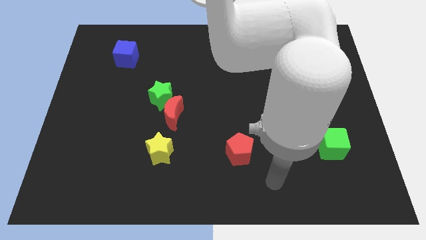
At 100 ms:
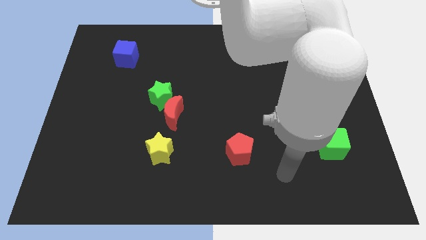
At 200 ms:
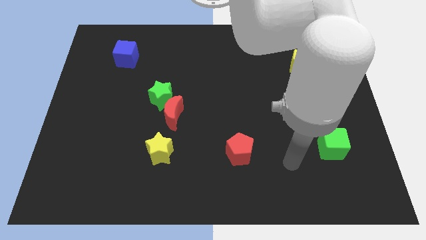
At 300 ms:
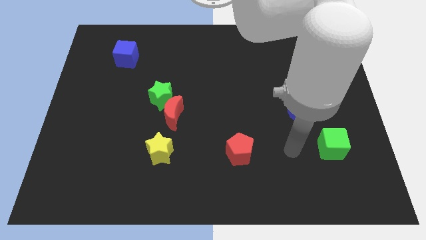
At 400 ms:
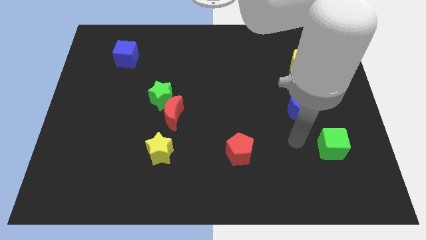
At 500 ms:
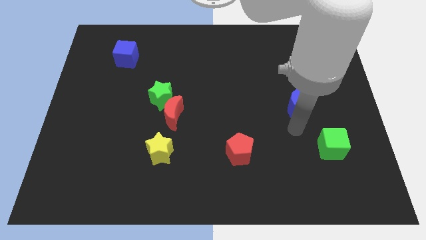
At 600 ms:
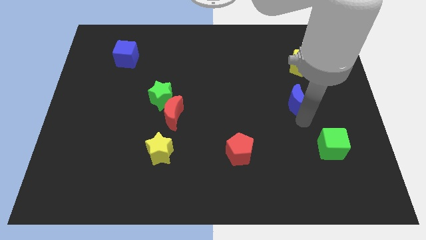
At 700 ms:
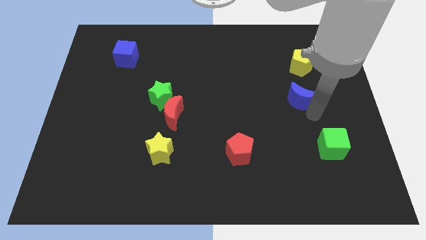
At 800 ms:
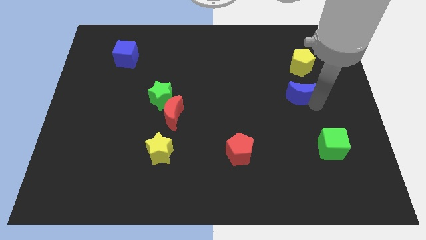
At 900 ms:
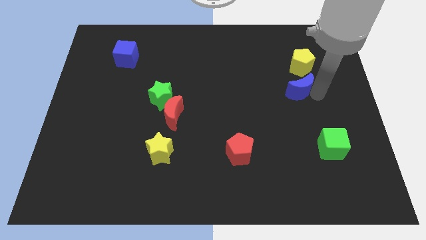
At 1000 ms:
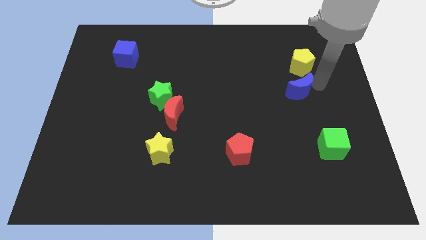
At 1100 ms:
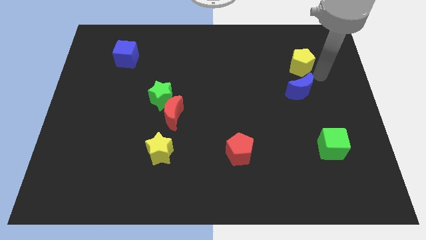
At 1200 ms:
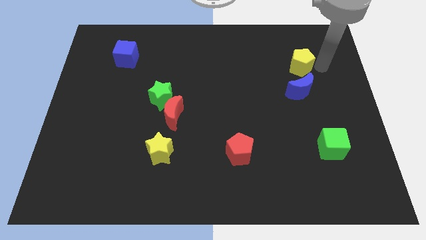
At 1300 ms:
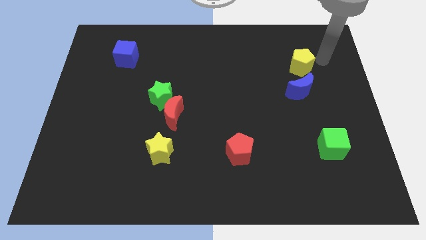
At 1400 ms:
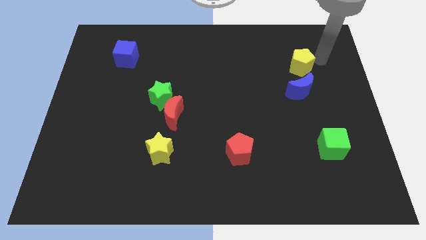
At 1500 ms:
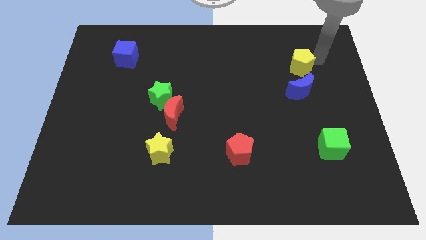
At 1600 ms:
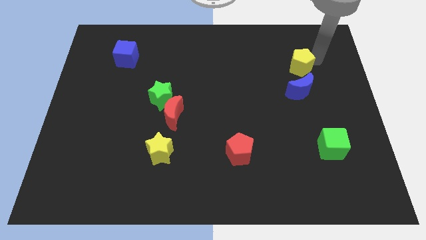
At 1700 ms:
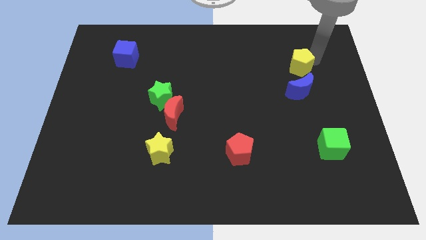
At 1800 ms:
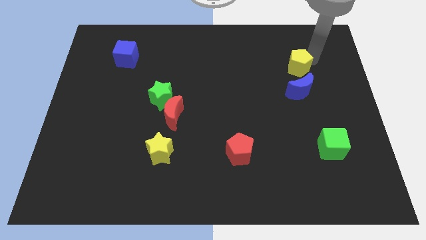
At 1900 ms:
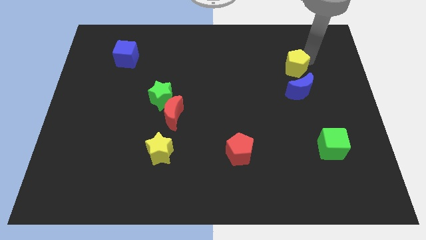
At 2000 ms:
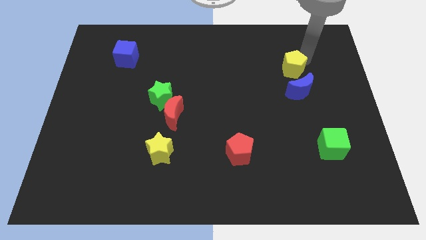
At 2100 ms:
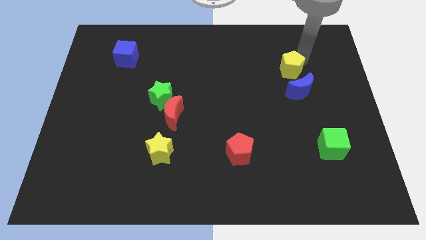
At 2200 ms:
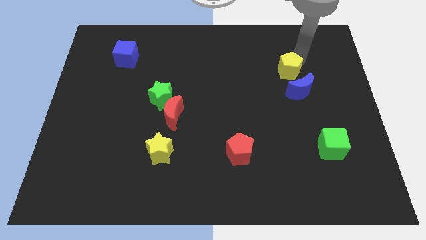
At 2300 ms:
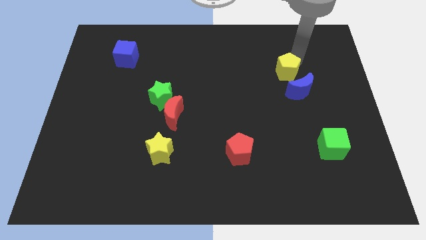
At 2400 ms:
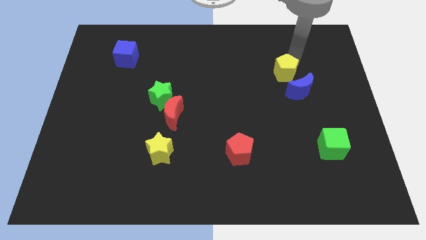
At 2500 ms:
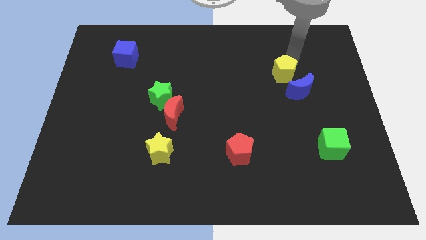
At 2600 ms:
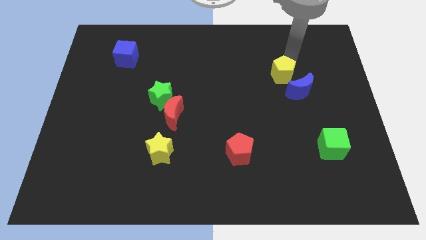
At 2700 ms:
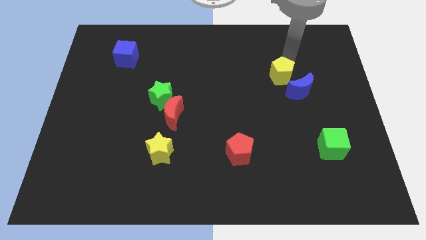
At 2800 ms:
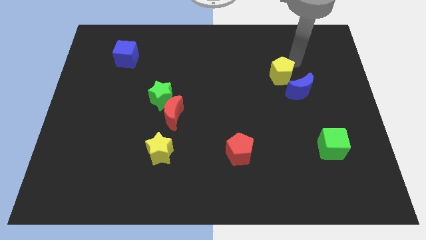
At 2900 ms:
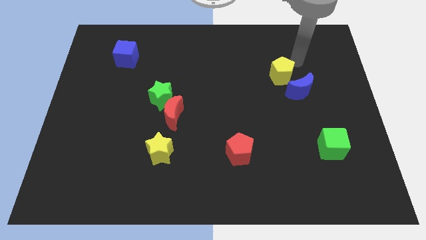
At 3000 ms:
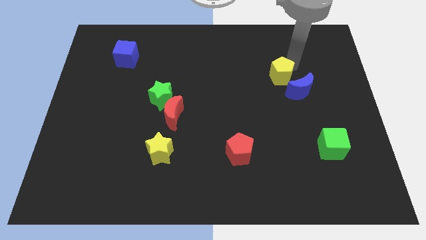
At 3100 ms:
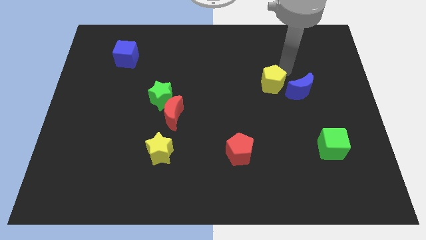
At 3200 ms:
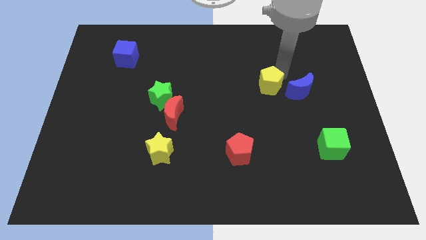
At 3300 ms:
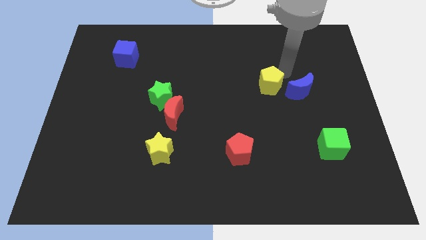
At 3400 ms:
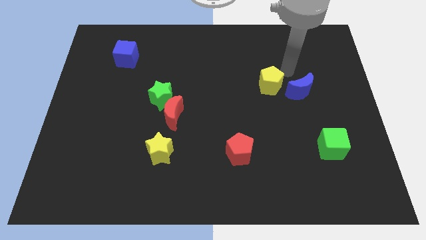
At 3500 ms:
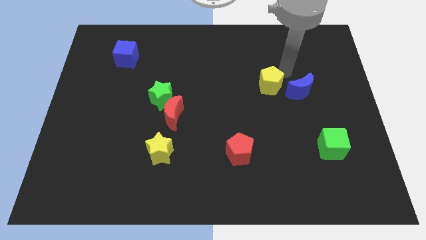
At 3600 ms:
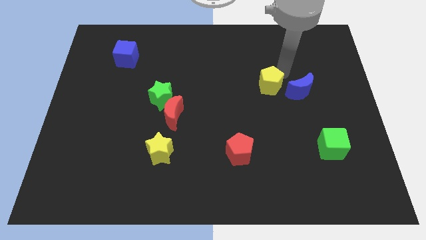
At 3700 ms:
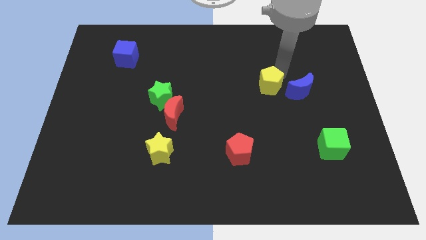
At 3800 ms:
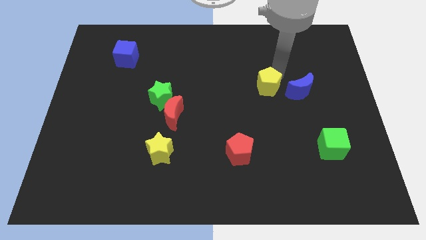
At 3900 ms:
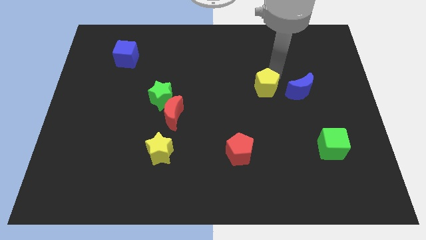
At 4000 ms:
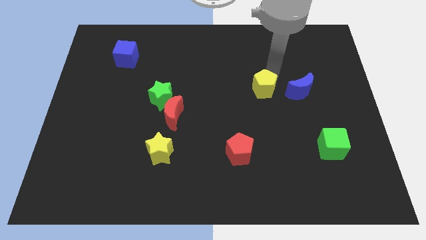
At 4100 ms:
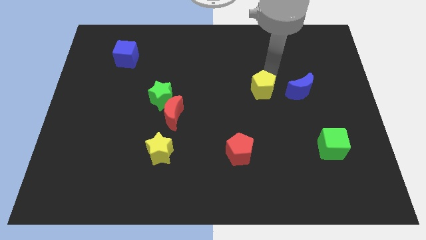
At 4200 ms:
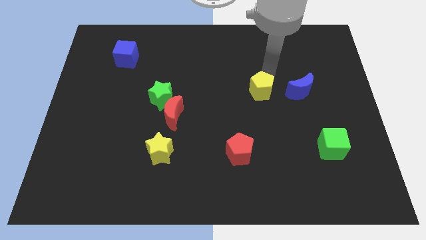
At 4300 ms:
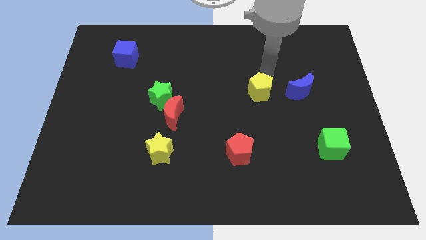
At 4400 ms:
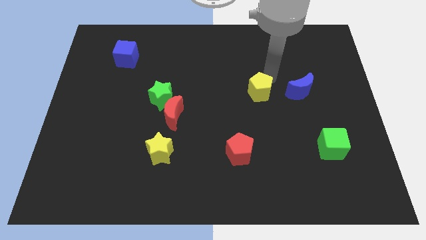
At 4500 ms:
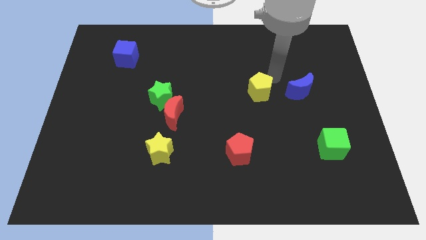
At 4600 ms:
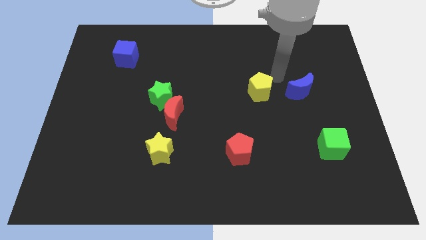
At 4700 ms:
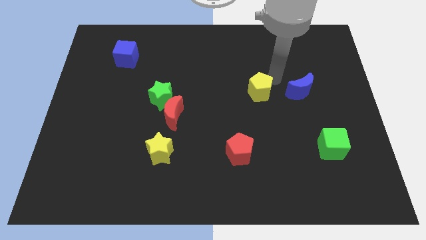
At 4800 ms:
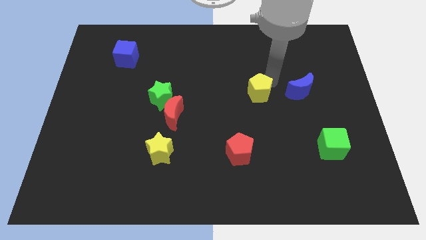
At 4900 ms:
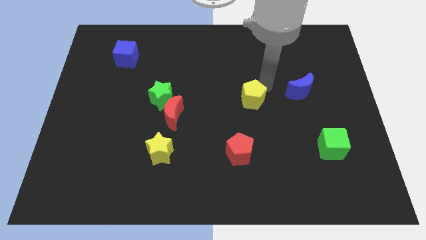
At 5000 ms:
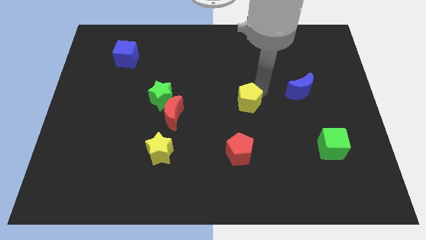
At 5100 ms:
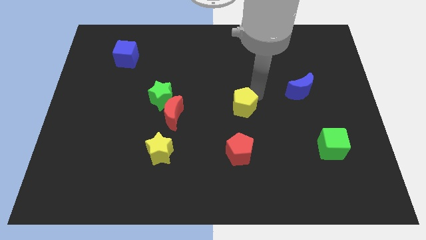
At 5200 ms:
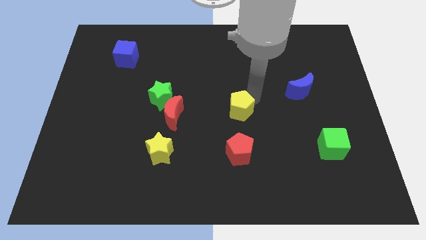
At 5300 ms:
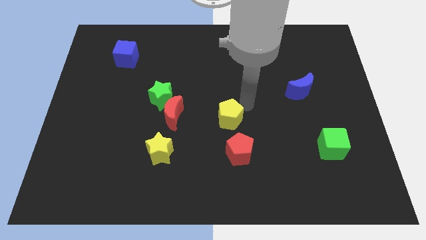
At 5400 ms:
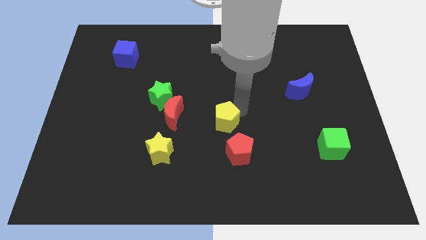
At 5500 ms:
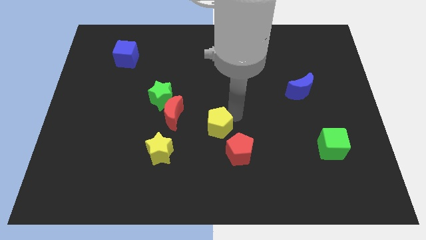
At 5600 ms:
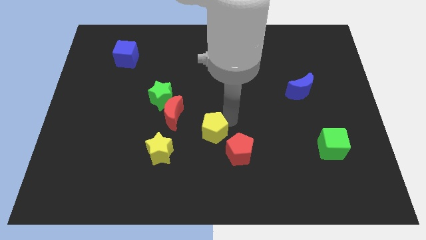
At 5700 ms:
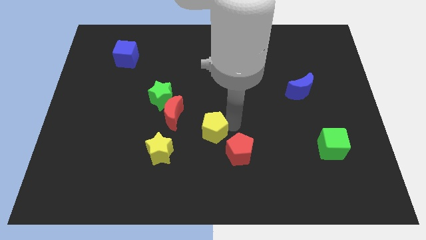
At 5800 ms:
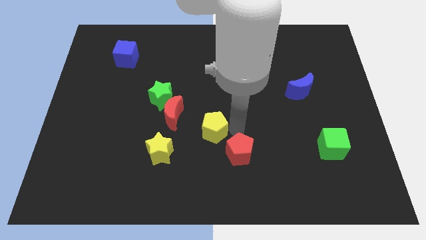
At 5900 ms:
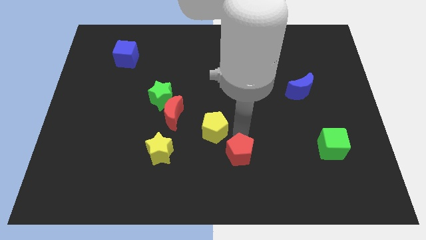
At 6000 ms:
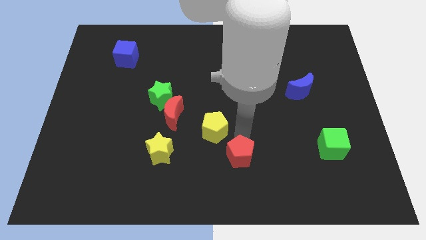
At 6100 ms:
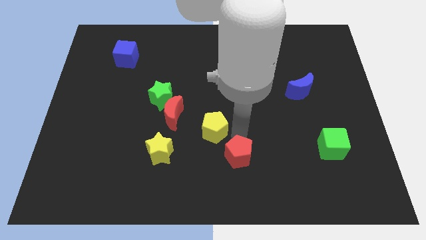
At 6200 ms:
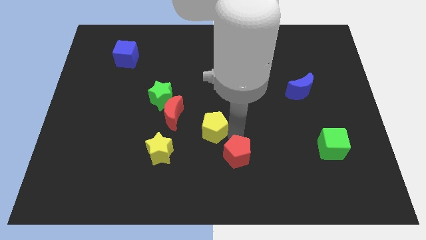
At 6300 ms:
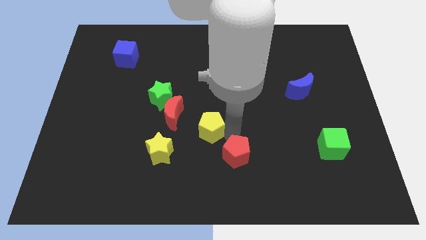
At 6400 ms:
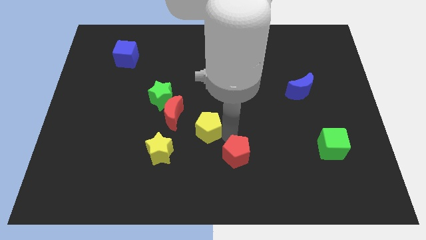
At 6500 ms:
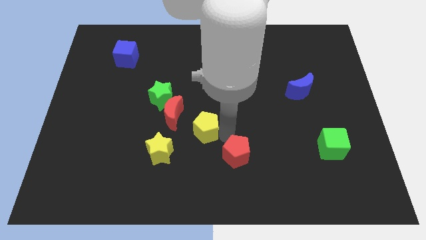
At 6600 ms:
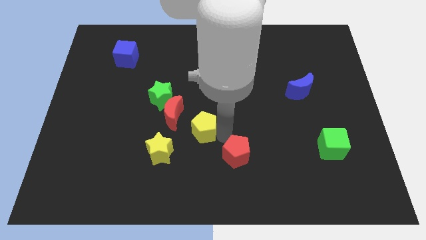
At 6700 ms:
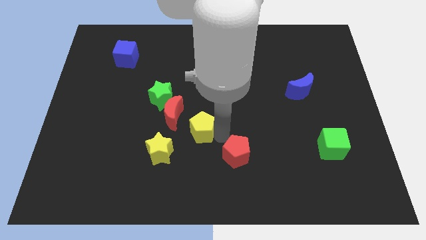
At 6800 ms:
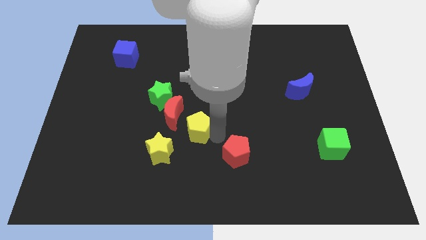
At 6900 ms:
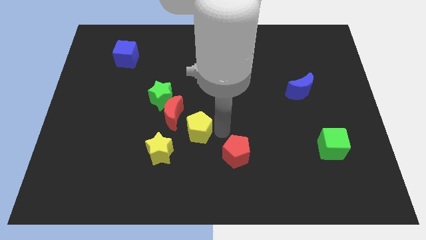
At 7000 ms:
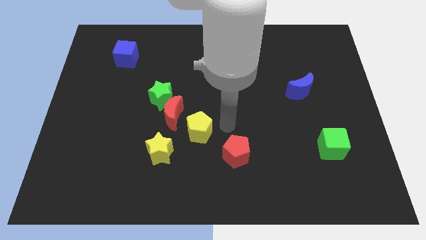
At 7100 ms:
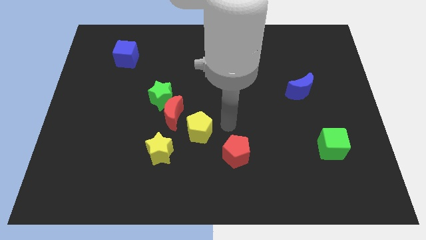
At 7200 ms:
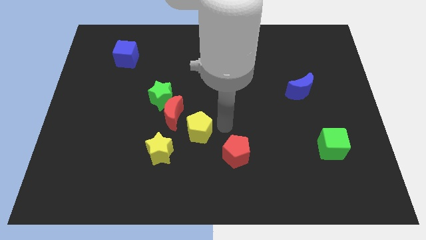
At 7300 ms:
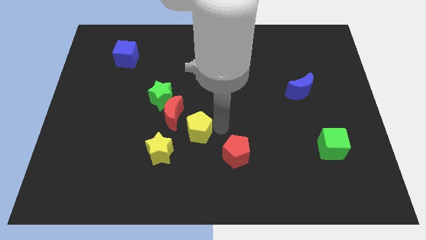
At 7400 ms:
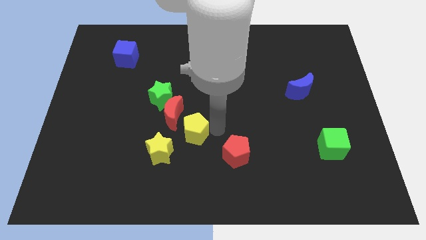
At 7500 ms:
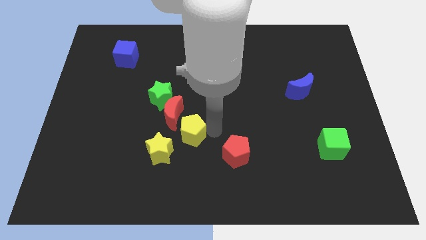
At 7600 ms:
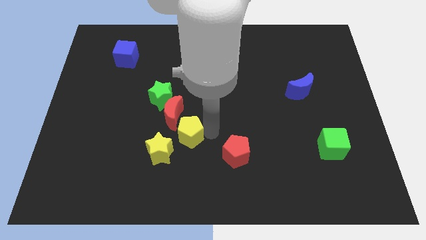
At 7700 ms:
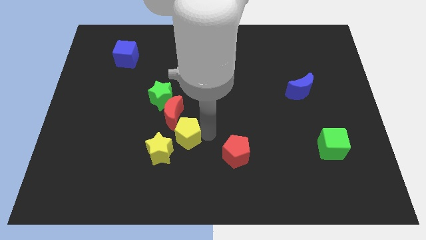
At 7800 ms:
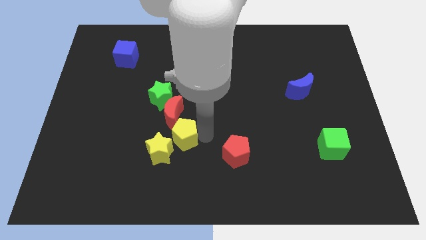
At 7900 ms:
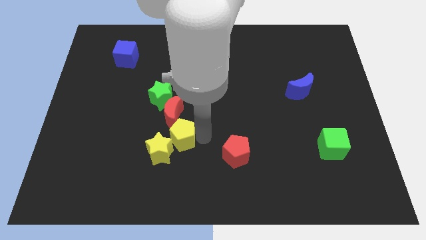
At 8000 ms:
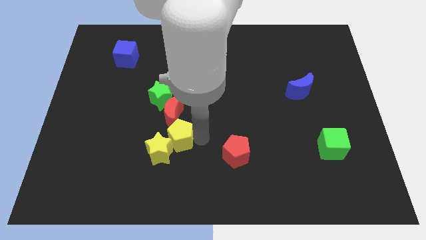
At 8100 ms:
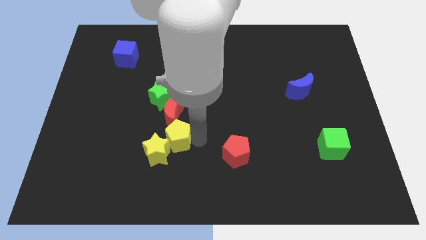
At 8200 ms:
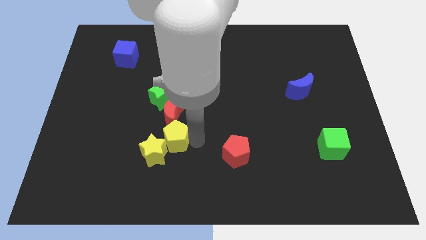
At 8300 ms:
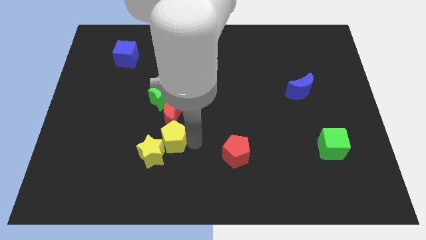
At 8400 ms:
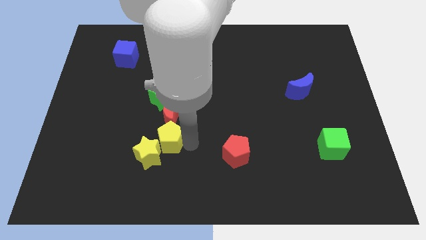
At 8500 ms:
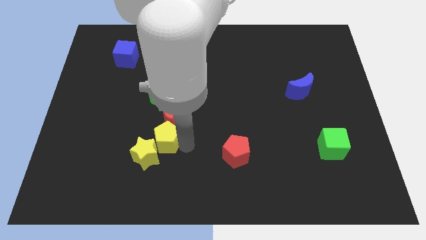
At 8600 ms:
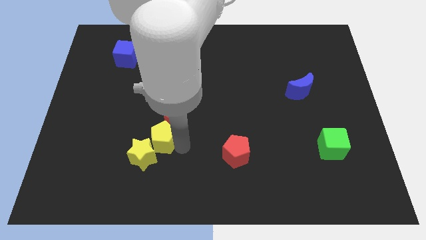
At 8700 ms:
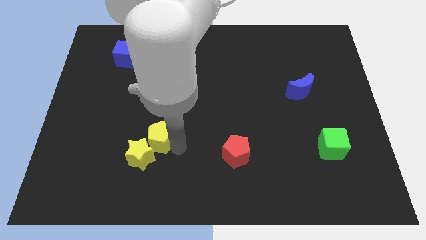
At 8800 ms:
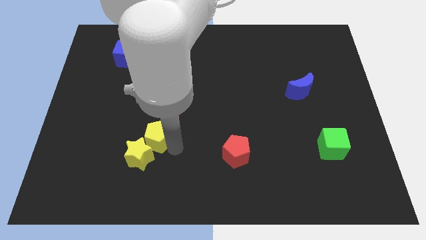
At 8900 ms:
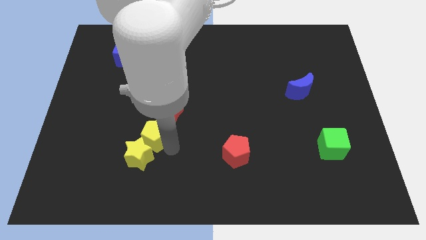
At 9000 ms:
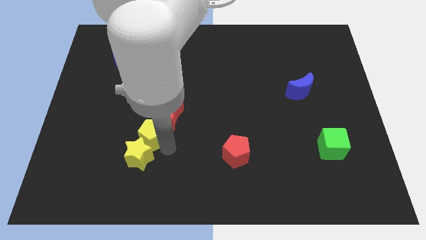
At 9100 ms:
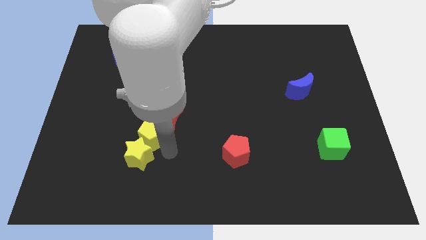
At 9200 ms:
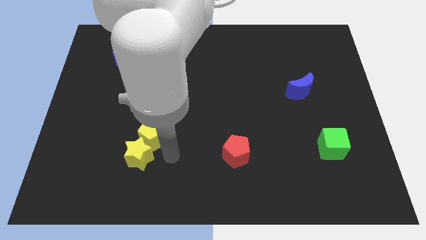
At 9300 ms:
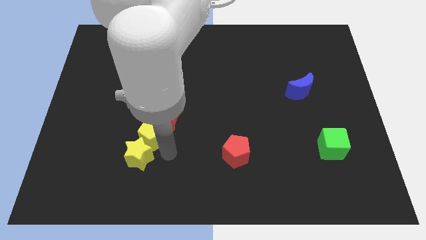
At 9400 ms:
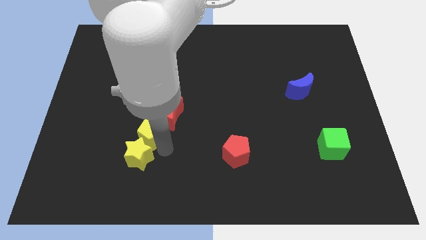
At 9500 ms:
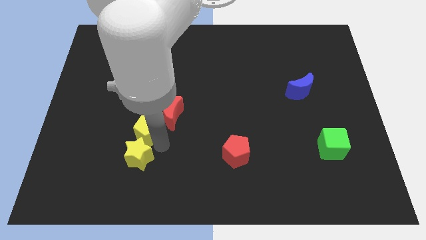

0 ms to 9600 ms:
slide the yellow pentagon just left of the red moon
